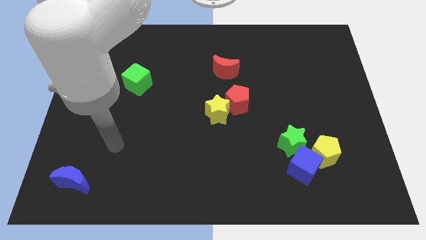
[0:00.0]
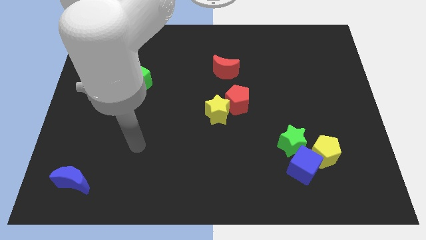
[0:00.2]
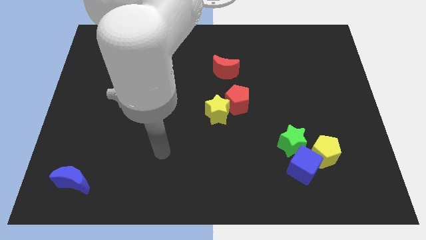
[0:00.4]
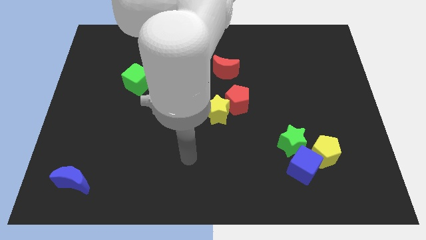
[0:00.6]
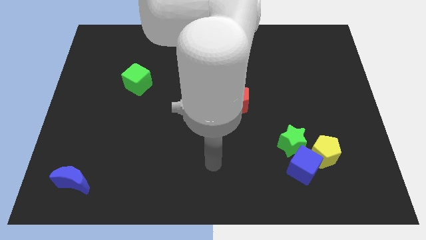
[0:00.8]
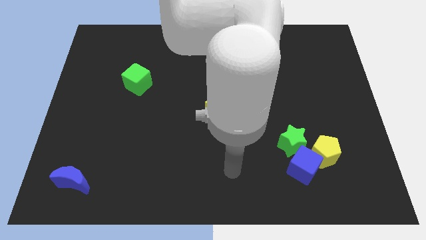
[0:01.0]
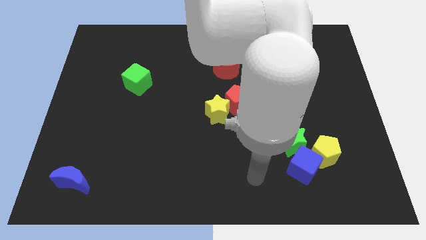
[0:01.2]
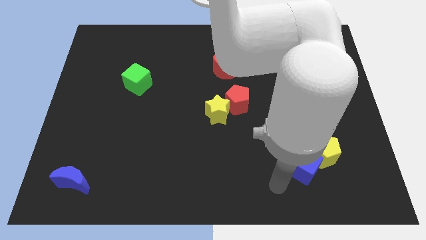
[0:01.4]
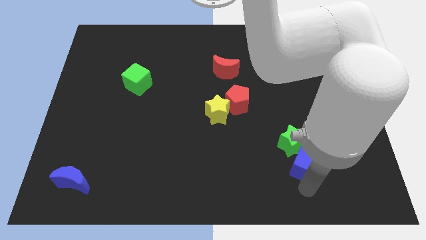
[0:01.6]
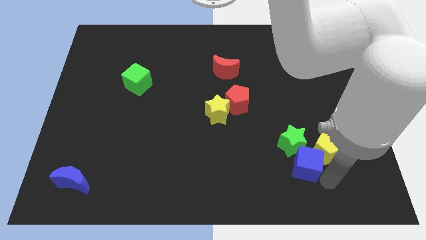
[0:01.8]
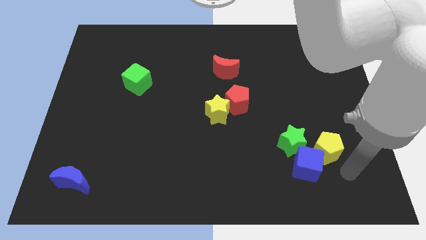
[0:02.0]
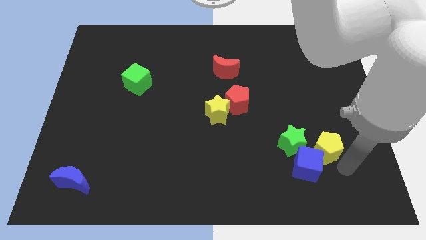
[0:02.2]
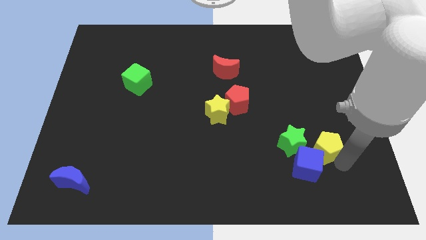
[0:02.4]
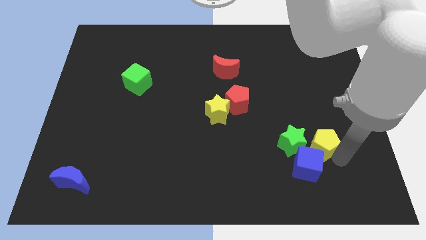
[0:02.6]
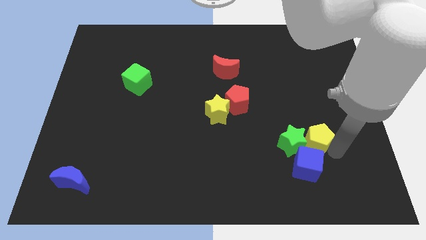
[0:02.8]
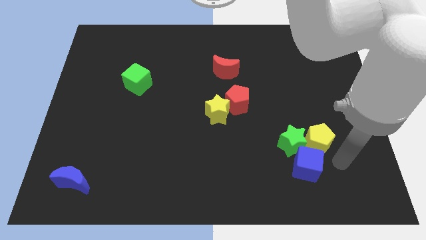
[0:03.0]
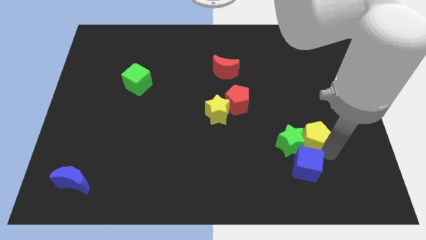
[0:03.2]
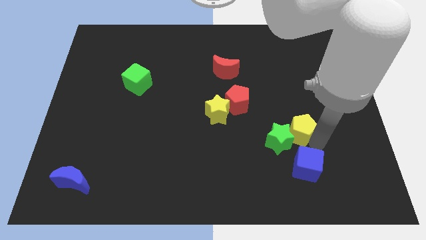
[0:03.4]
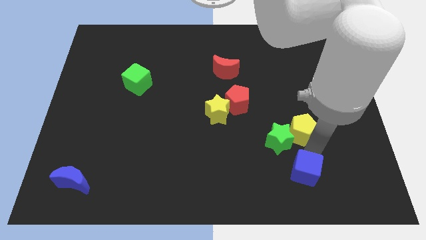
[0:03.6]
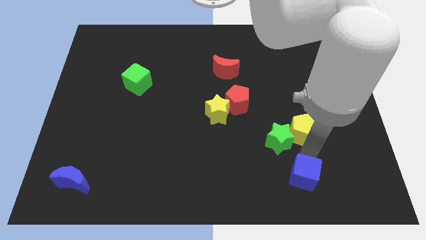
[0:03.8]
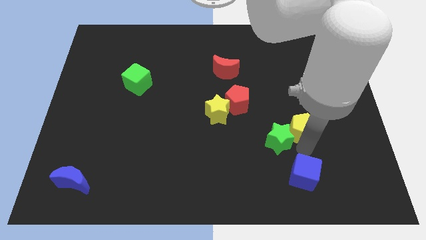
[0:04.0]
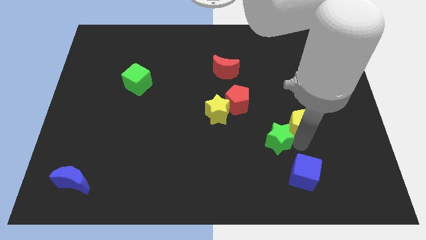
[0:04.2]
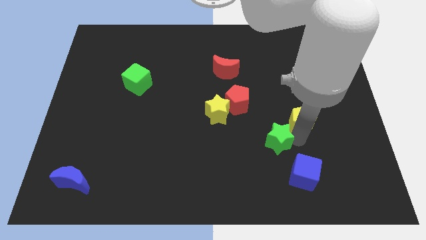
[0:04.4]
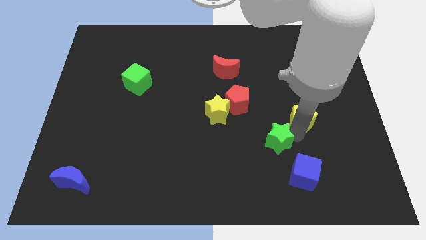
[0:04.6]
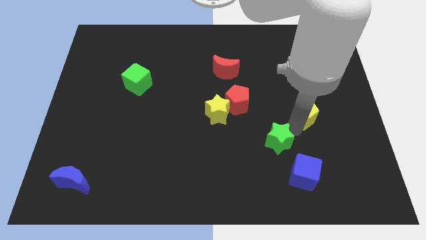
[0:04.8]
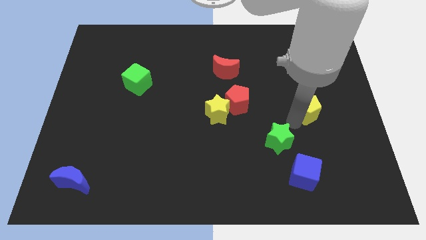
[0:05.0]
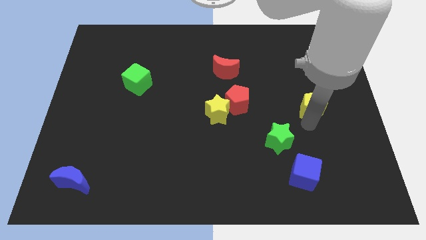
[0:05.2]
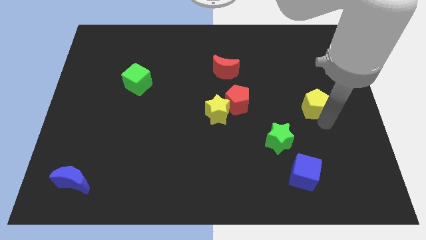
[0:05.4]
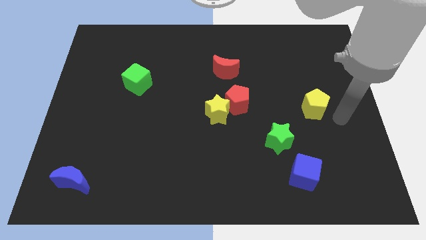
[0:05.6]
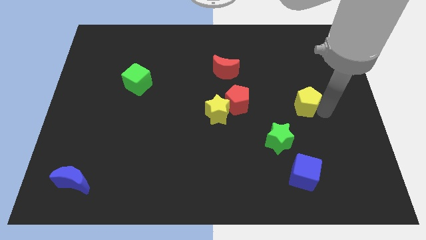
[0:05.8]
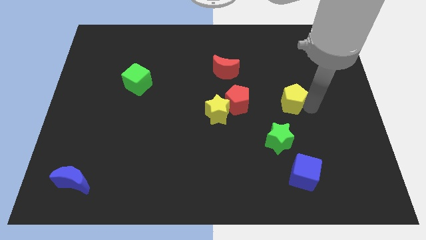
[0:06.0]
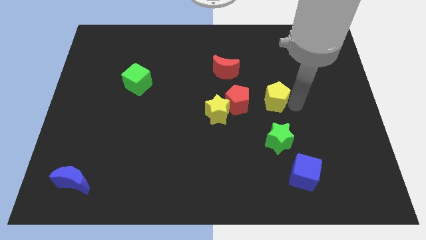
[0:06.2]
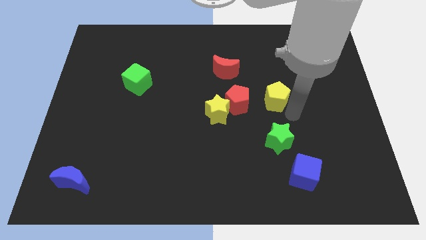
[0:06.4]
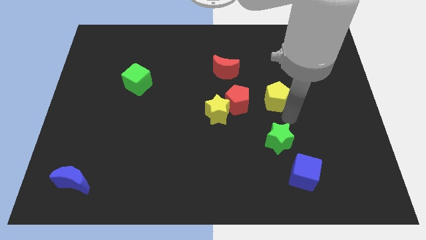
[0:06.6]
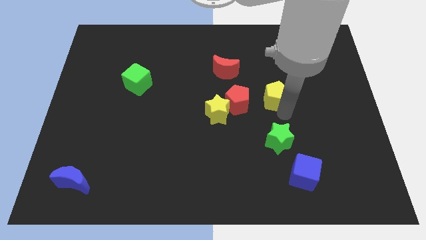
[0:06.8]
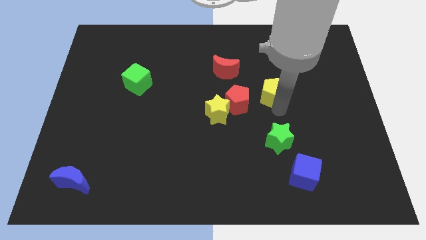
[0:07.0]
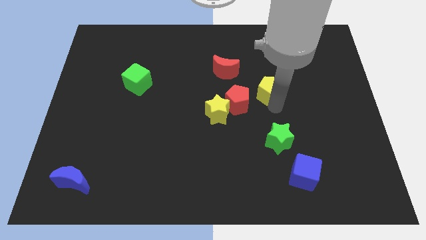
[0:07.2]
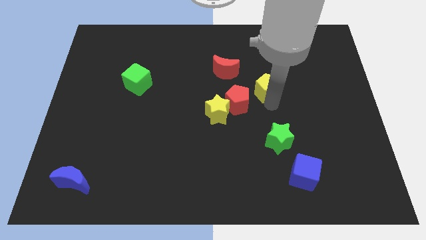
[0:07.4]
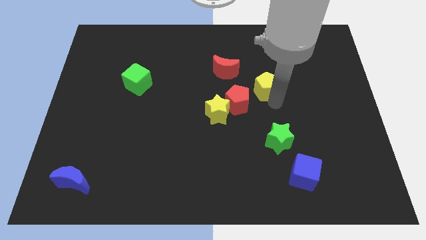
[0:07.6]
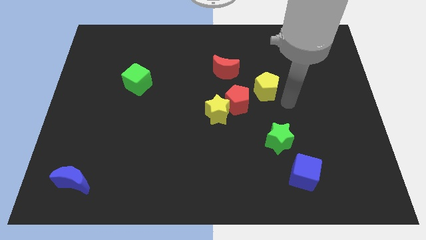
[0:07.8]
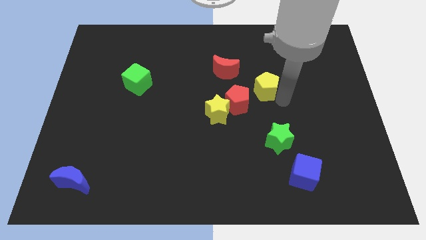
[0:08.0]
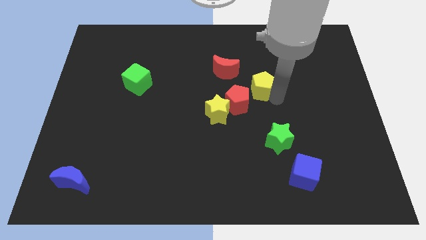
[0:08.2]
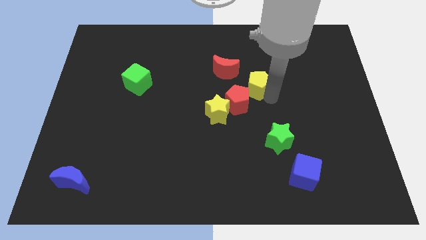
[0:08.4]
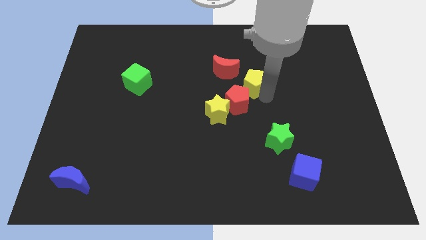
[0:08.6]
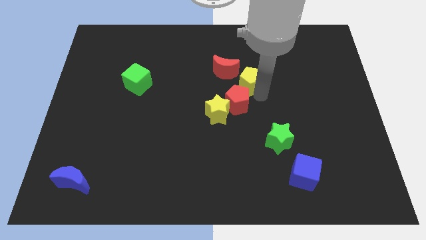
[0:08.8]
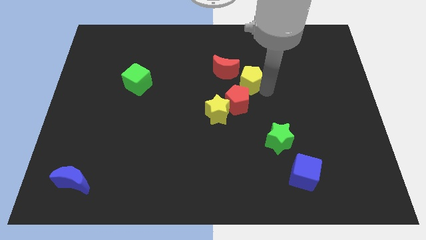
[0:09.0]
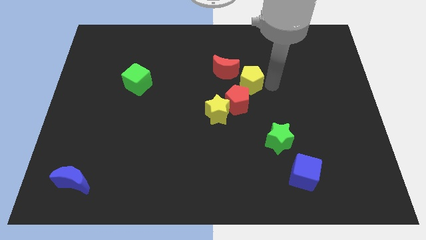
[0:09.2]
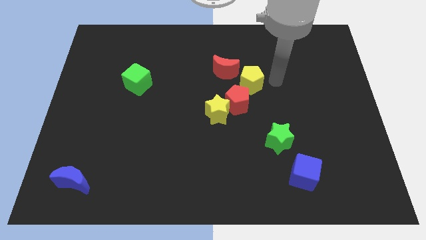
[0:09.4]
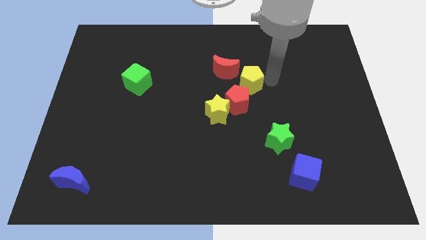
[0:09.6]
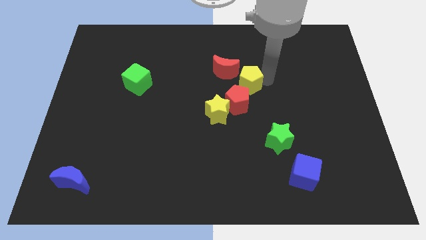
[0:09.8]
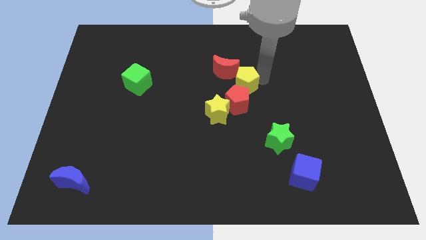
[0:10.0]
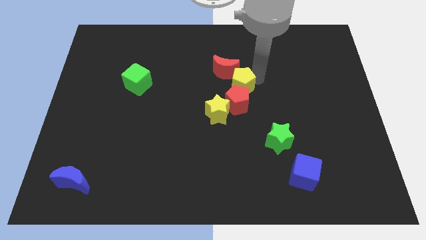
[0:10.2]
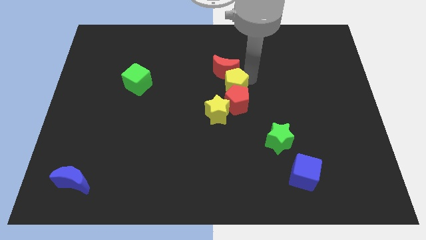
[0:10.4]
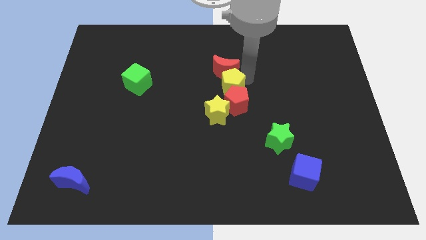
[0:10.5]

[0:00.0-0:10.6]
put the yellow pentagon diagonally down and to the left of the red moon

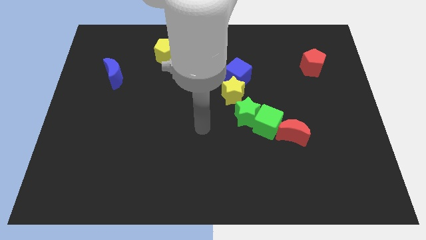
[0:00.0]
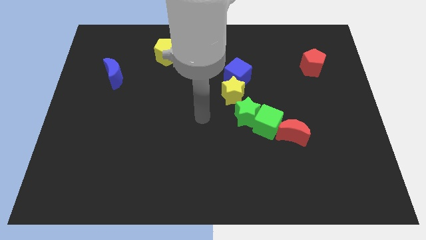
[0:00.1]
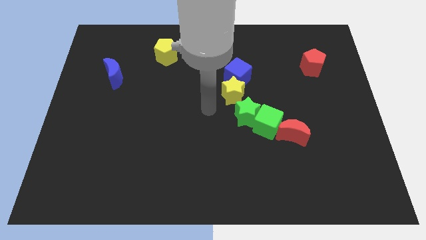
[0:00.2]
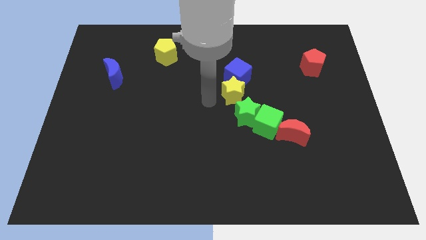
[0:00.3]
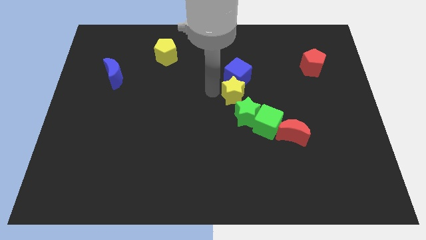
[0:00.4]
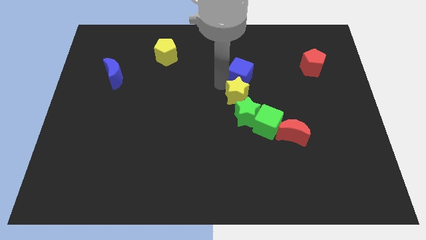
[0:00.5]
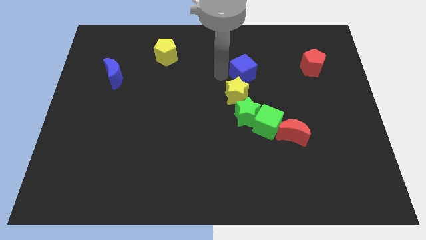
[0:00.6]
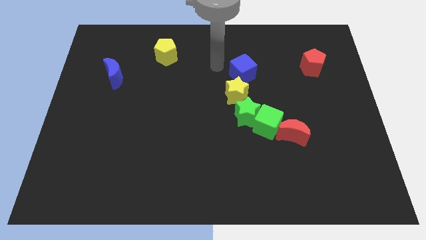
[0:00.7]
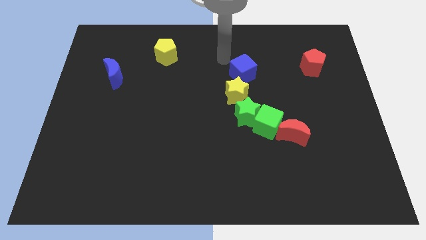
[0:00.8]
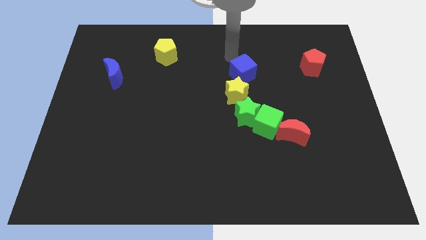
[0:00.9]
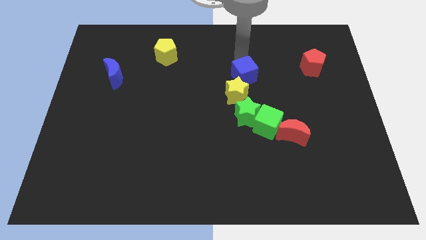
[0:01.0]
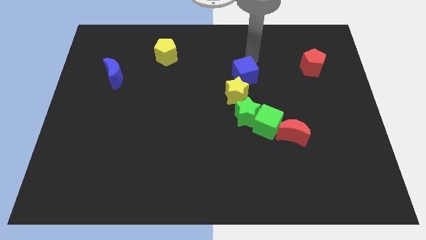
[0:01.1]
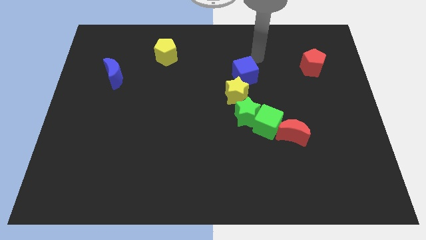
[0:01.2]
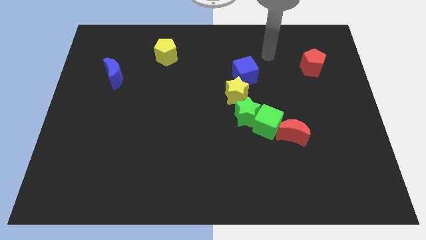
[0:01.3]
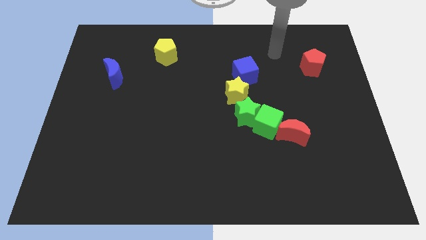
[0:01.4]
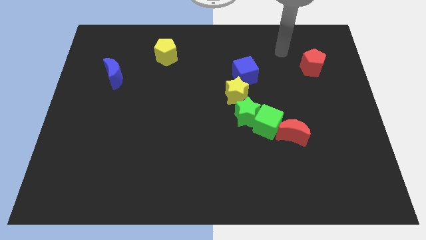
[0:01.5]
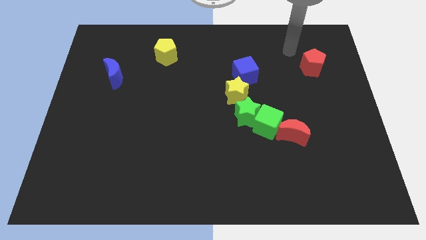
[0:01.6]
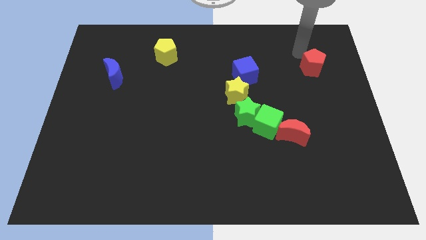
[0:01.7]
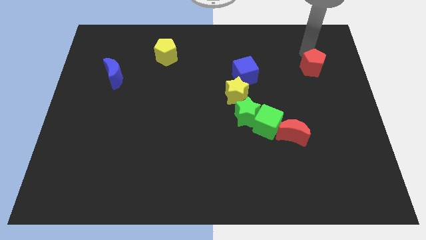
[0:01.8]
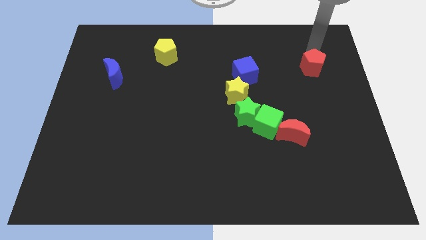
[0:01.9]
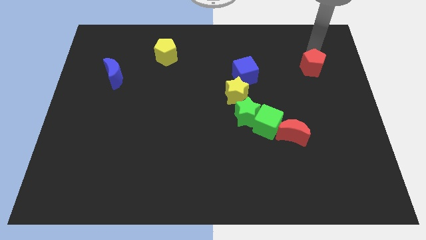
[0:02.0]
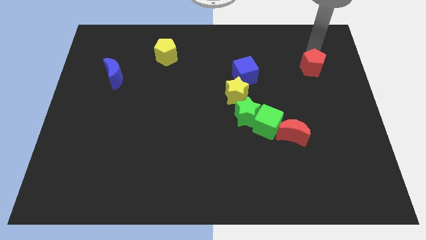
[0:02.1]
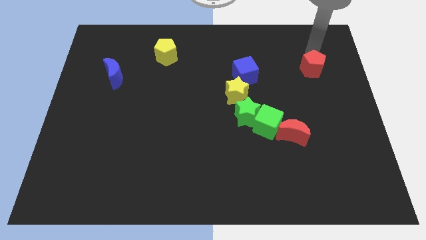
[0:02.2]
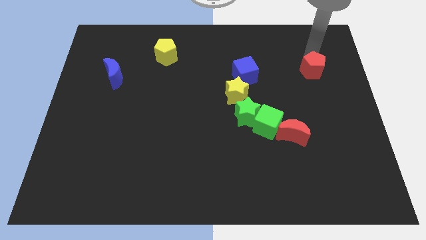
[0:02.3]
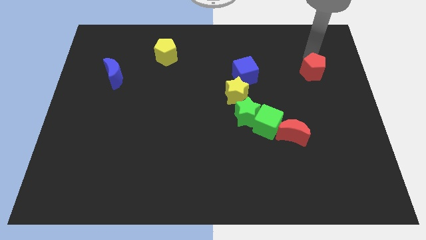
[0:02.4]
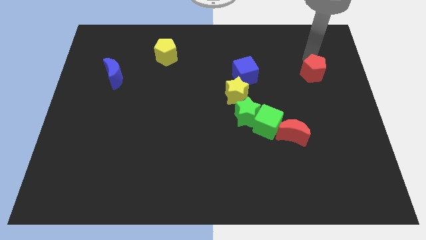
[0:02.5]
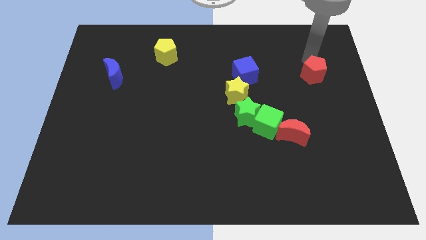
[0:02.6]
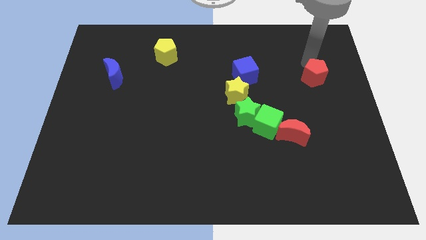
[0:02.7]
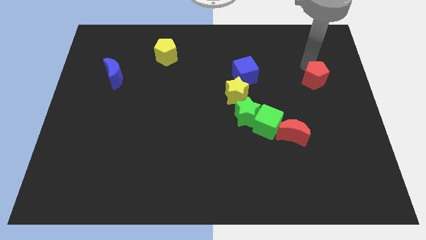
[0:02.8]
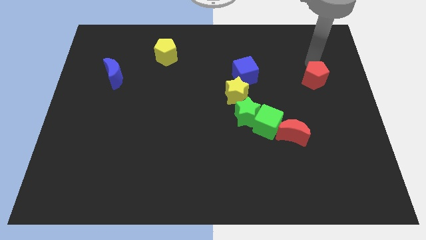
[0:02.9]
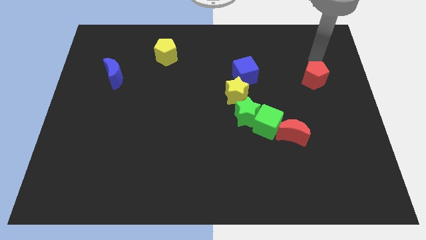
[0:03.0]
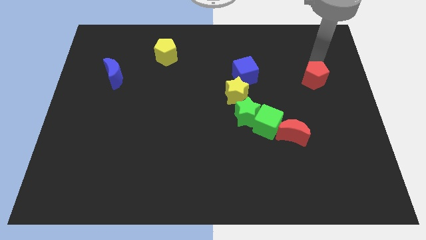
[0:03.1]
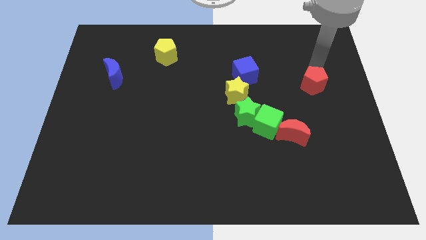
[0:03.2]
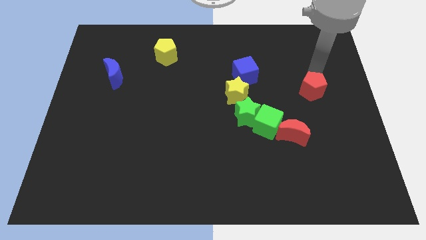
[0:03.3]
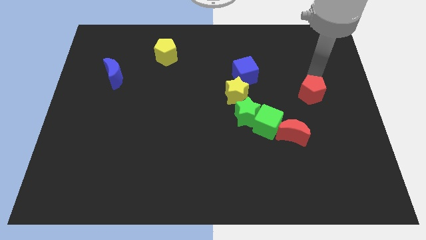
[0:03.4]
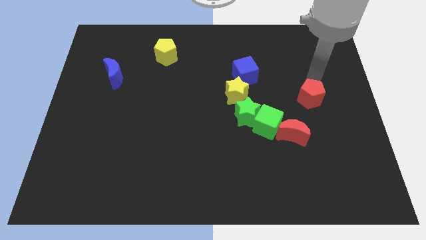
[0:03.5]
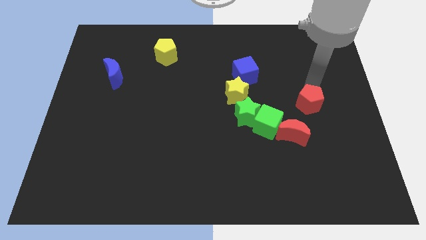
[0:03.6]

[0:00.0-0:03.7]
push the red pentagon to the top right of the red moon
